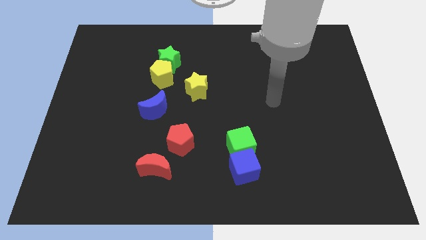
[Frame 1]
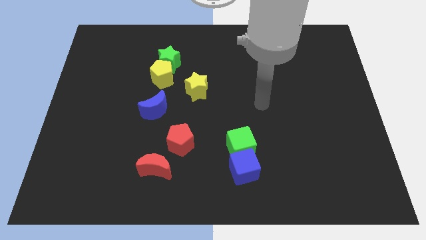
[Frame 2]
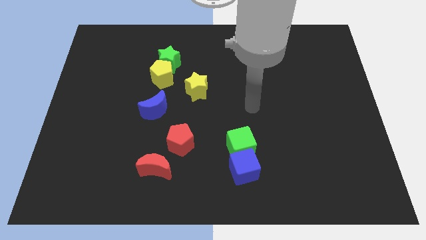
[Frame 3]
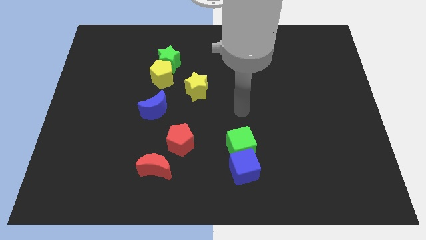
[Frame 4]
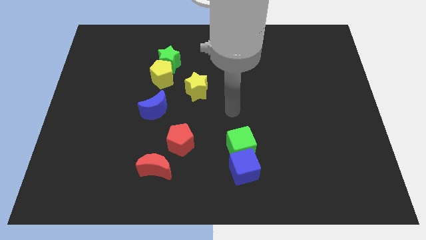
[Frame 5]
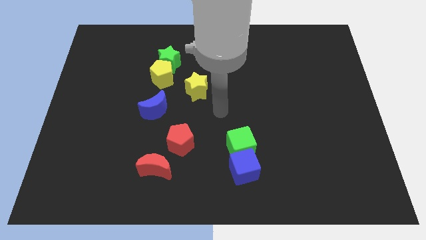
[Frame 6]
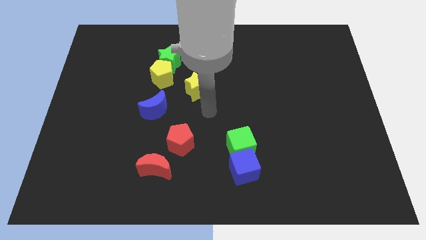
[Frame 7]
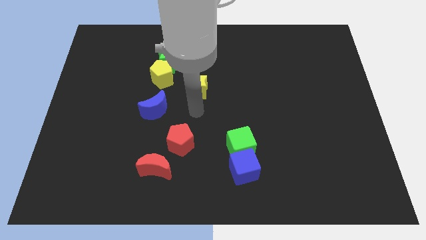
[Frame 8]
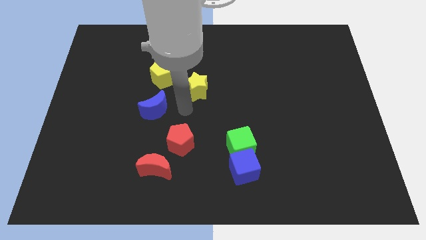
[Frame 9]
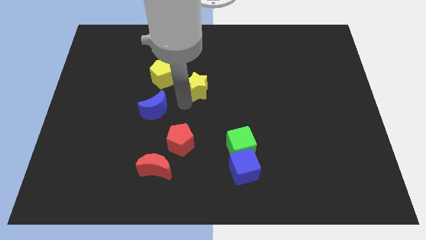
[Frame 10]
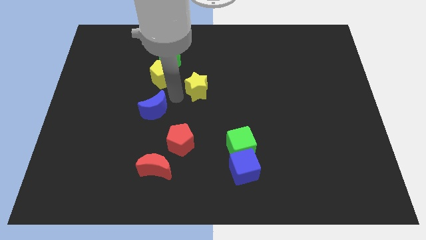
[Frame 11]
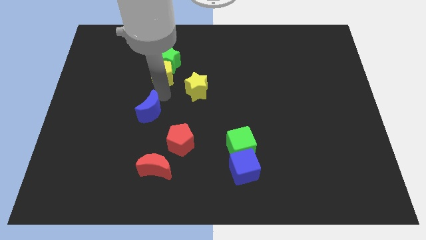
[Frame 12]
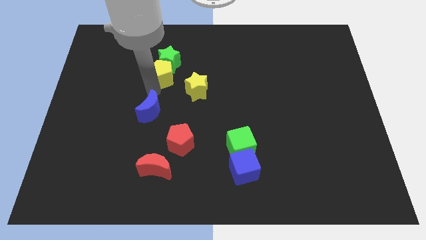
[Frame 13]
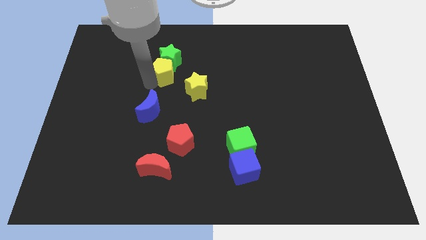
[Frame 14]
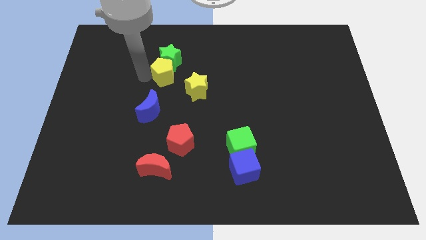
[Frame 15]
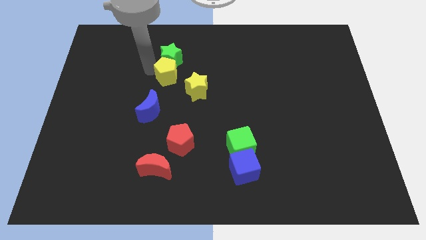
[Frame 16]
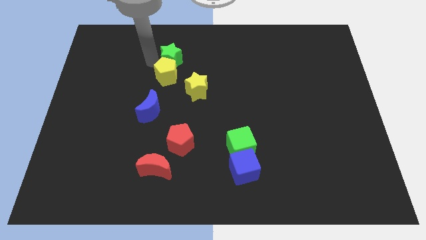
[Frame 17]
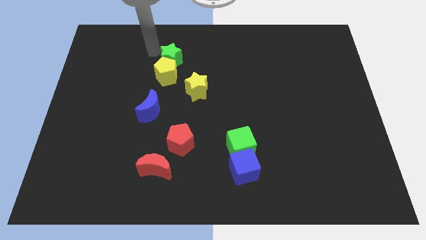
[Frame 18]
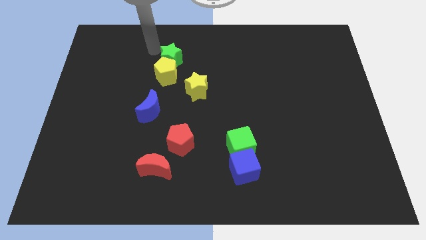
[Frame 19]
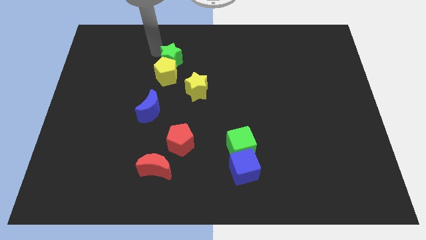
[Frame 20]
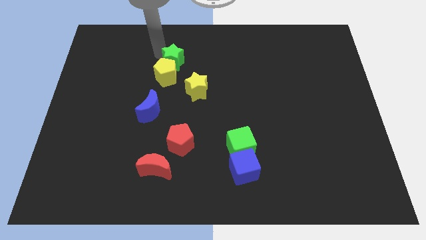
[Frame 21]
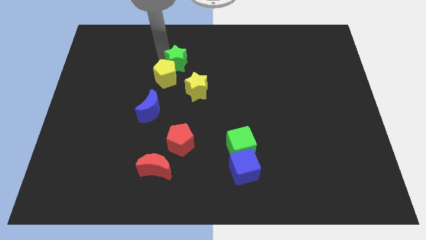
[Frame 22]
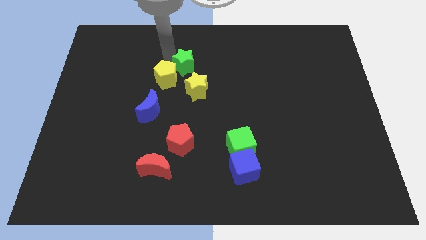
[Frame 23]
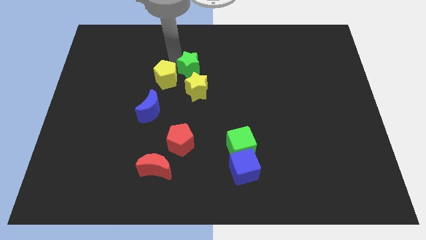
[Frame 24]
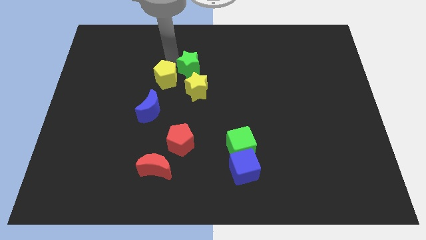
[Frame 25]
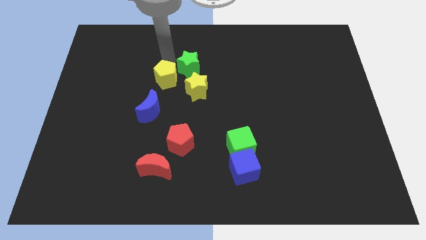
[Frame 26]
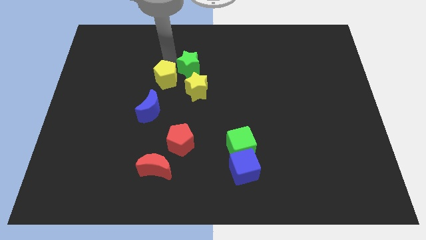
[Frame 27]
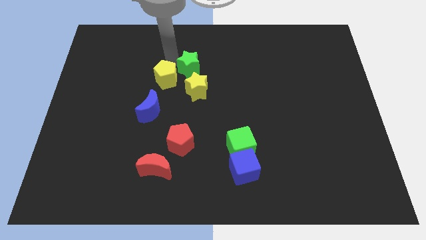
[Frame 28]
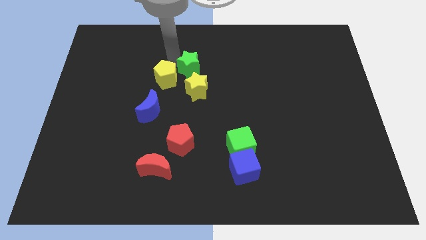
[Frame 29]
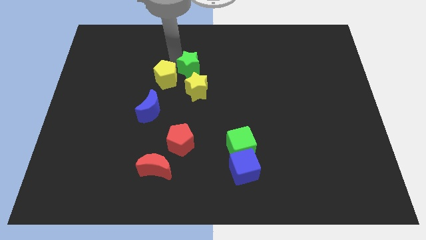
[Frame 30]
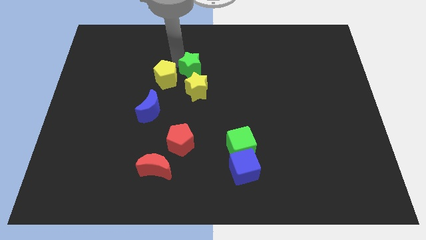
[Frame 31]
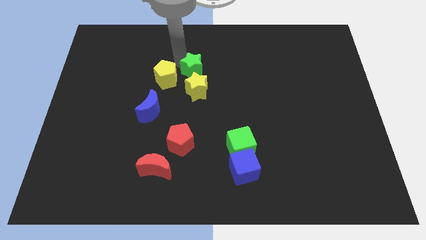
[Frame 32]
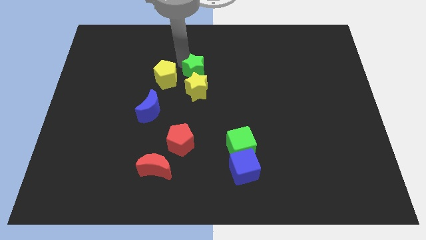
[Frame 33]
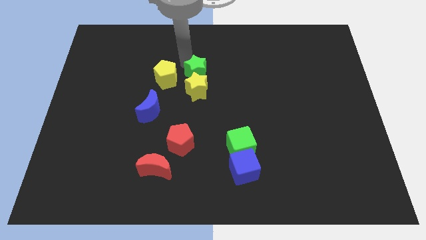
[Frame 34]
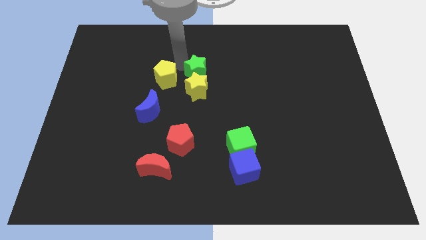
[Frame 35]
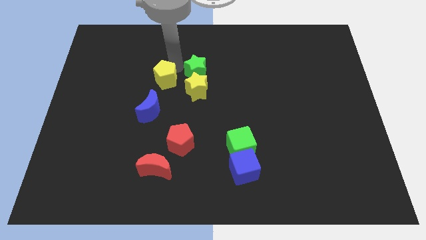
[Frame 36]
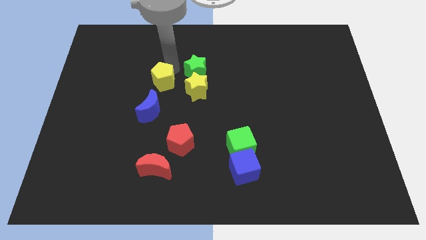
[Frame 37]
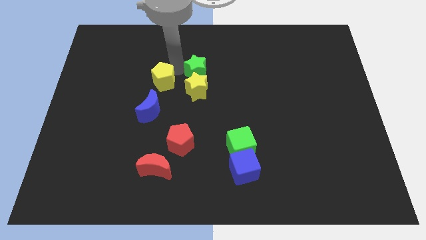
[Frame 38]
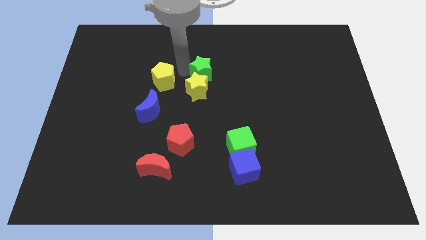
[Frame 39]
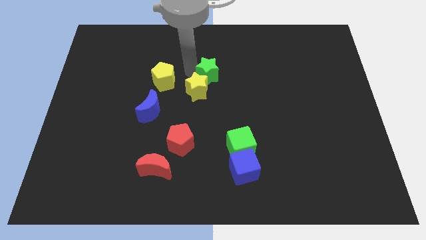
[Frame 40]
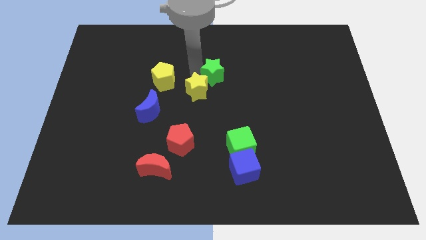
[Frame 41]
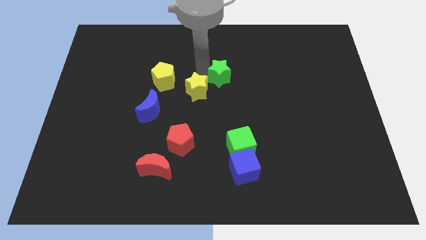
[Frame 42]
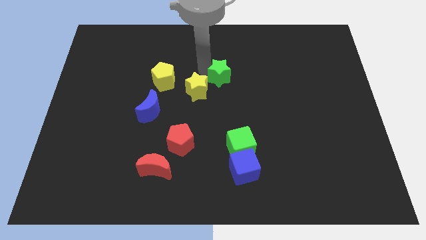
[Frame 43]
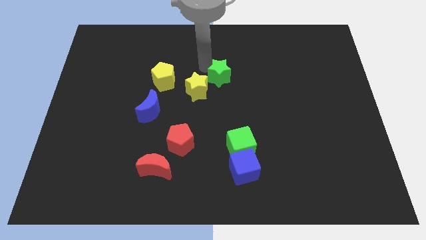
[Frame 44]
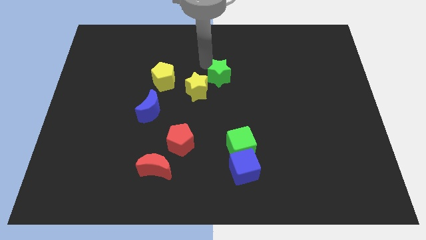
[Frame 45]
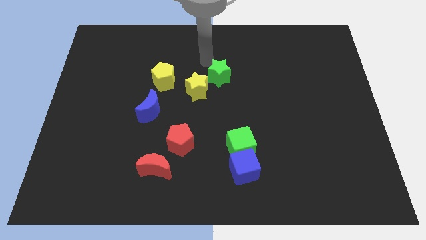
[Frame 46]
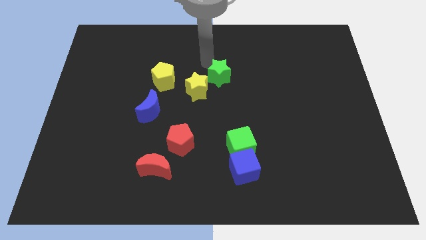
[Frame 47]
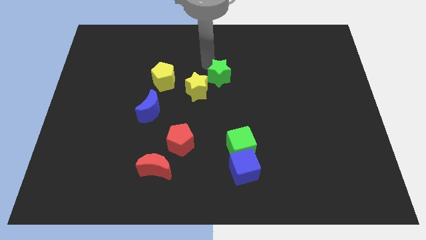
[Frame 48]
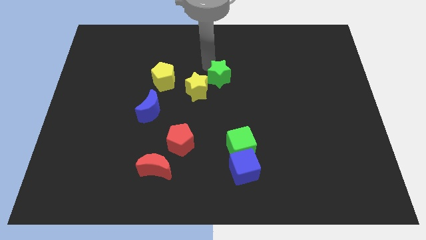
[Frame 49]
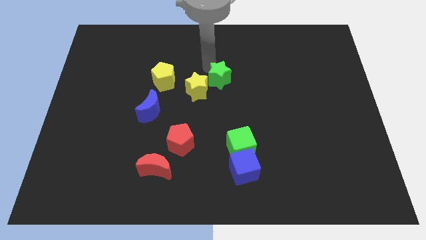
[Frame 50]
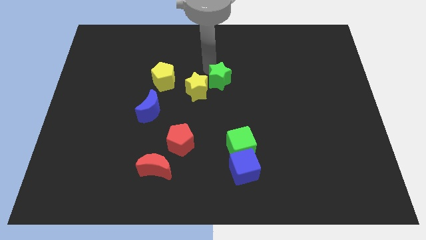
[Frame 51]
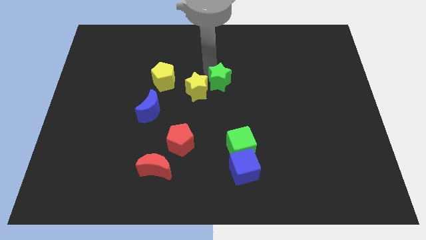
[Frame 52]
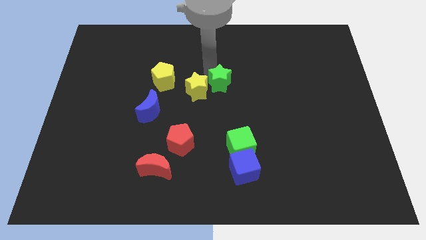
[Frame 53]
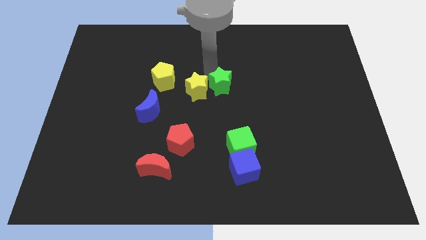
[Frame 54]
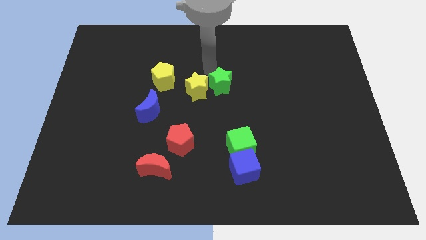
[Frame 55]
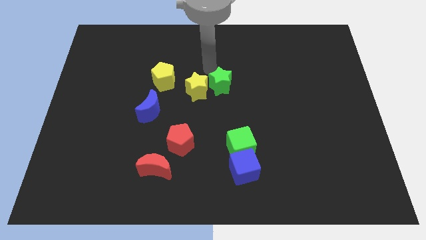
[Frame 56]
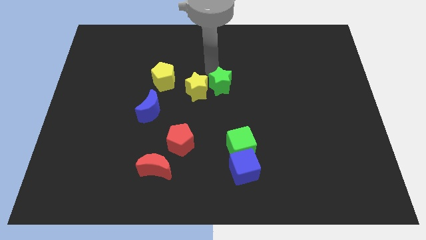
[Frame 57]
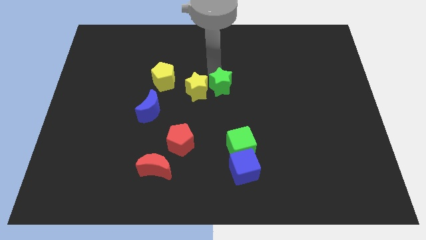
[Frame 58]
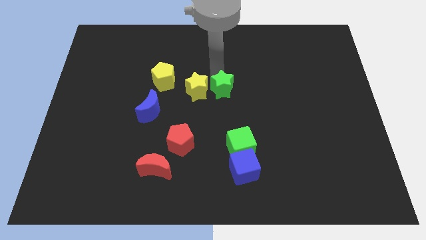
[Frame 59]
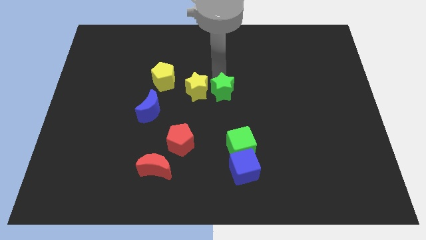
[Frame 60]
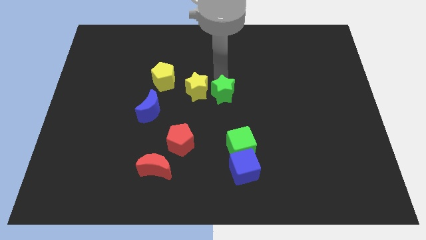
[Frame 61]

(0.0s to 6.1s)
put the green star to the top of the green cube

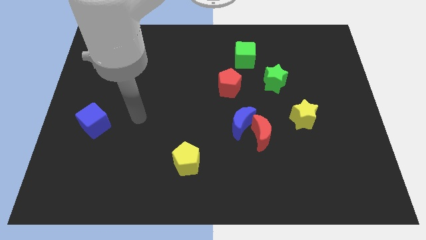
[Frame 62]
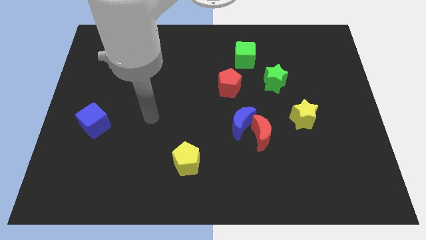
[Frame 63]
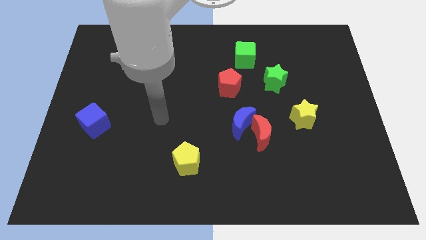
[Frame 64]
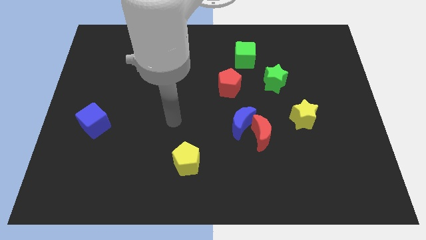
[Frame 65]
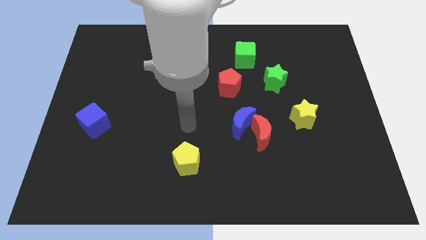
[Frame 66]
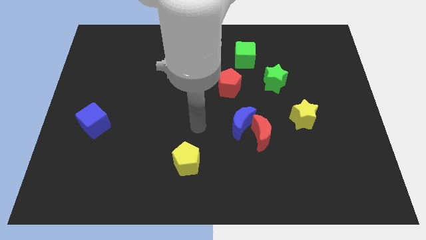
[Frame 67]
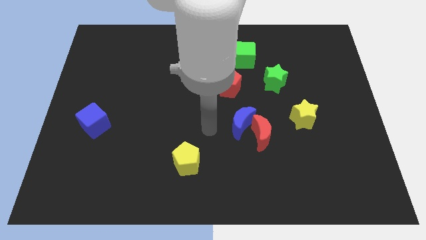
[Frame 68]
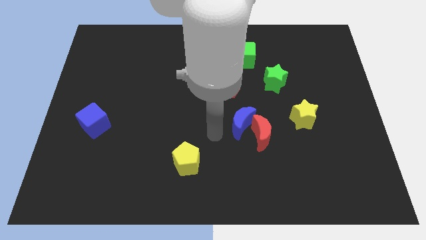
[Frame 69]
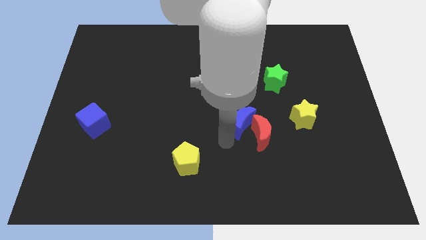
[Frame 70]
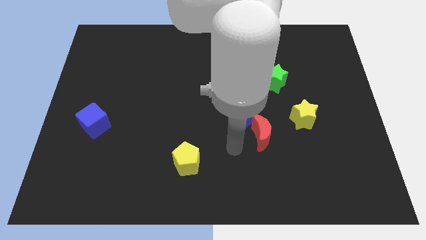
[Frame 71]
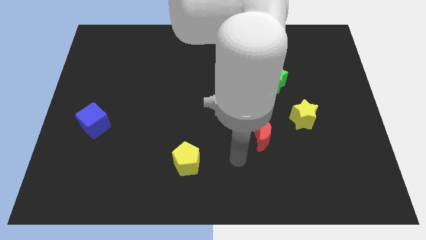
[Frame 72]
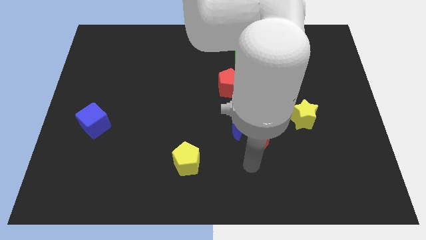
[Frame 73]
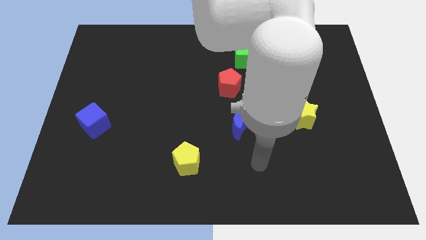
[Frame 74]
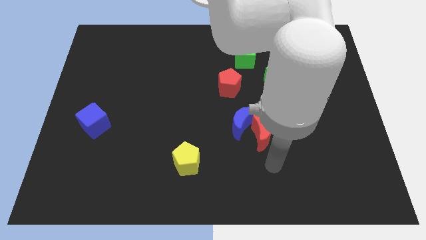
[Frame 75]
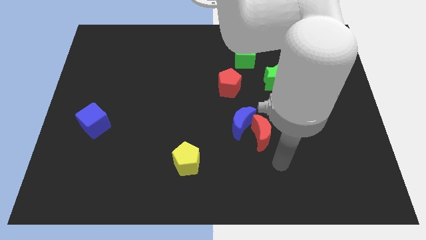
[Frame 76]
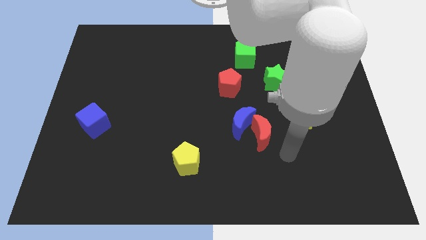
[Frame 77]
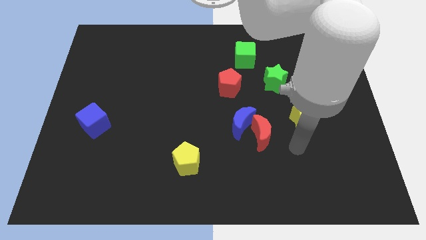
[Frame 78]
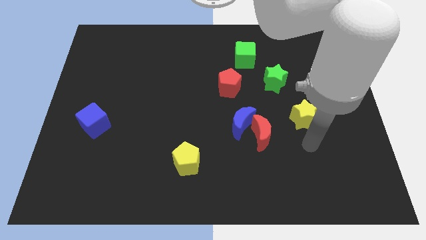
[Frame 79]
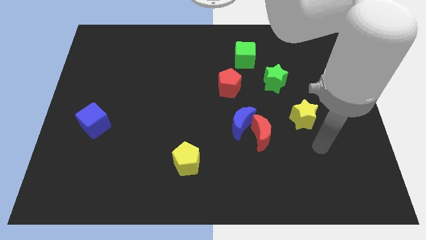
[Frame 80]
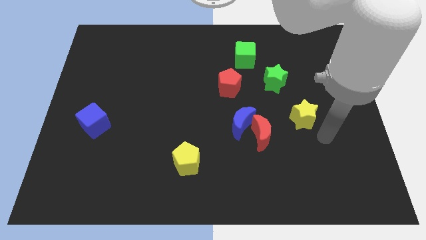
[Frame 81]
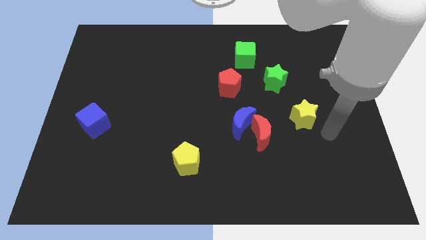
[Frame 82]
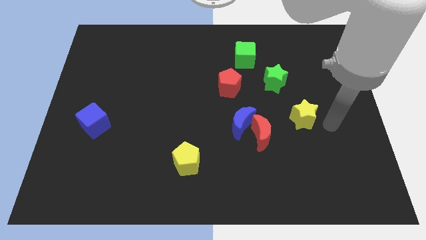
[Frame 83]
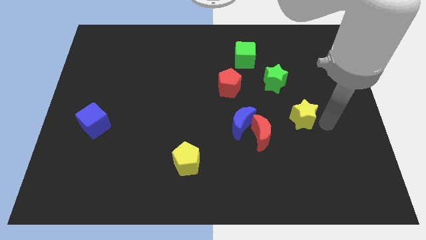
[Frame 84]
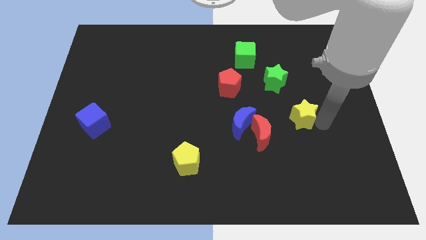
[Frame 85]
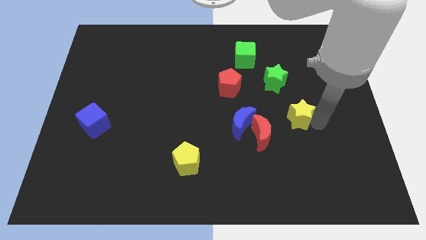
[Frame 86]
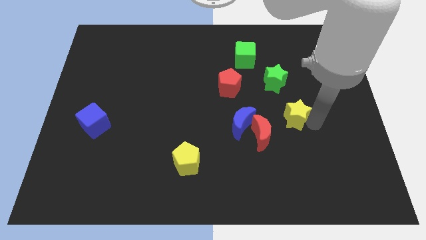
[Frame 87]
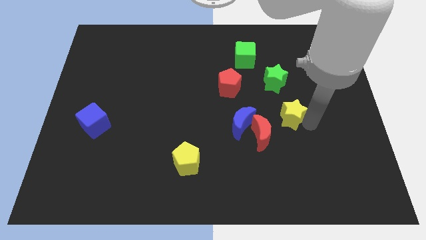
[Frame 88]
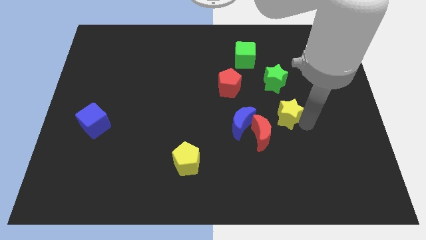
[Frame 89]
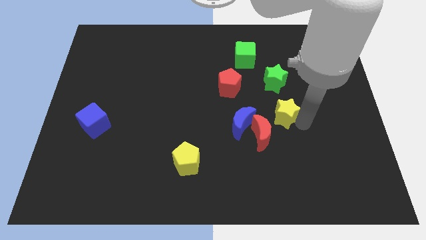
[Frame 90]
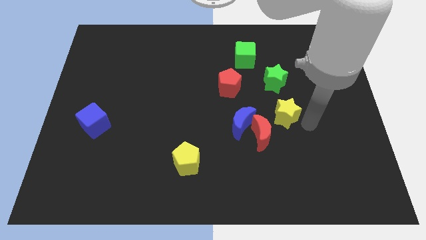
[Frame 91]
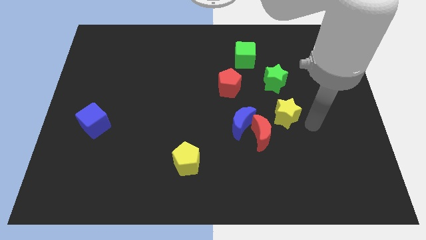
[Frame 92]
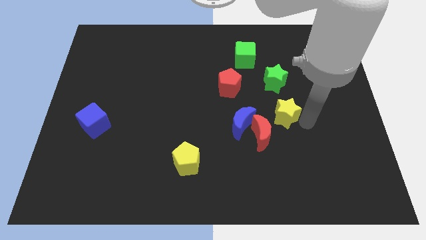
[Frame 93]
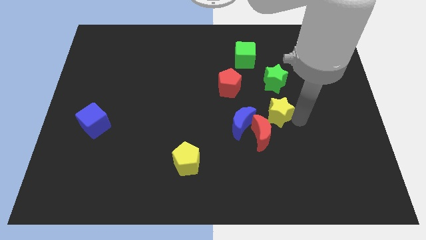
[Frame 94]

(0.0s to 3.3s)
put the yellow star to the top right of the blue moon
